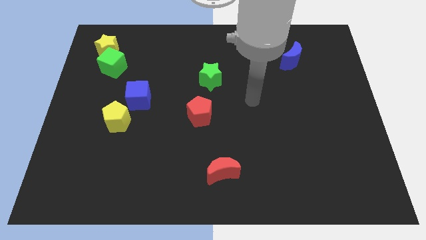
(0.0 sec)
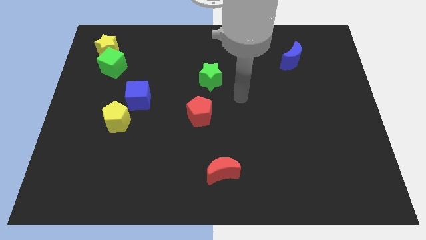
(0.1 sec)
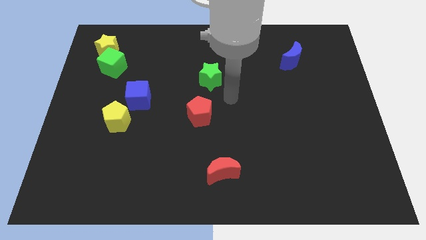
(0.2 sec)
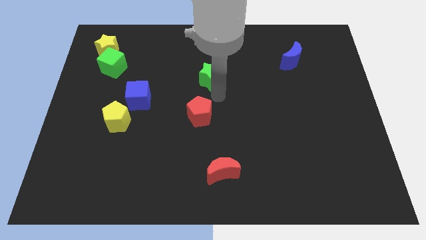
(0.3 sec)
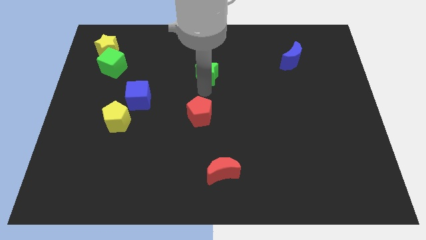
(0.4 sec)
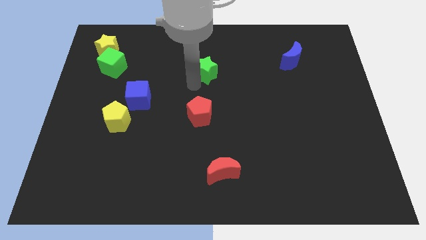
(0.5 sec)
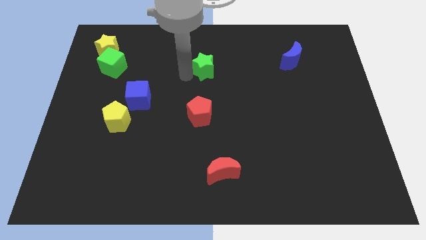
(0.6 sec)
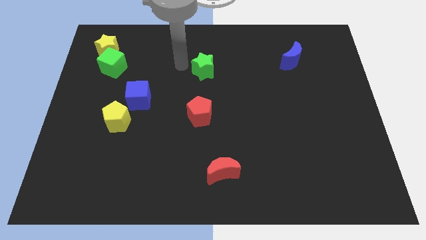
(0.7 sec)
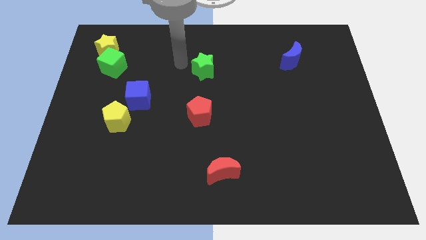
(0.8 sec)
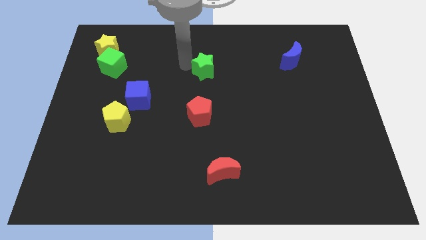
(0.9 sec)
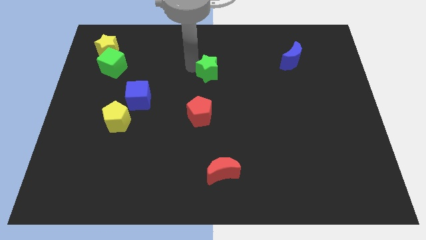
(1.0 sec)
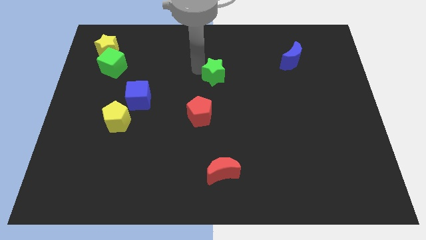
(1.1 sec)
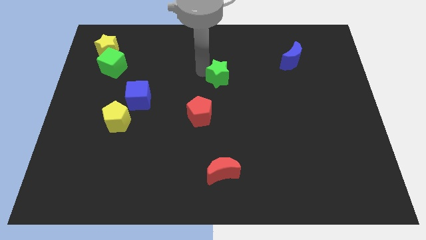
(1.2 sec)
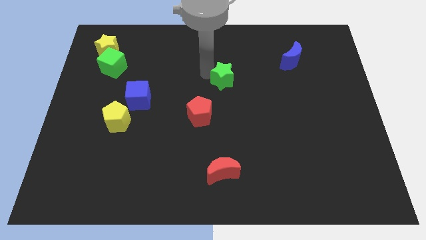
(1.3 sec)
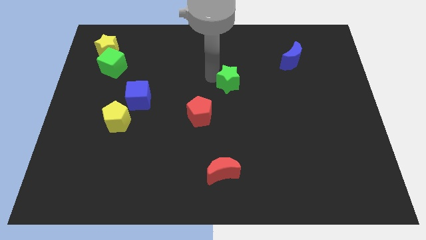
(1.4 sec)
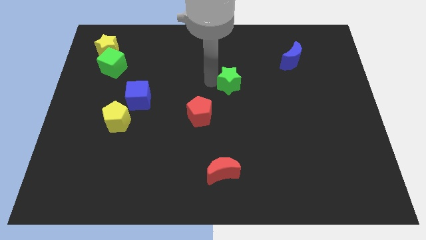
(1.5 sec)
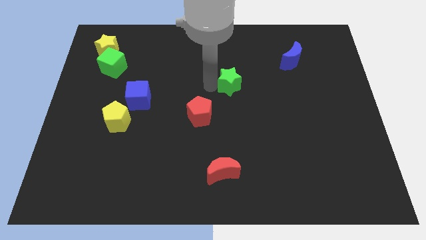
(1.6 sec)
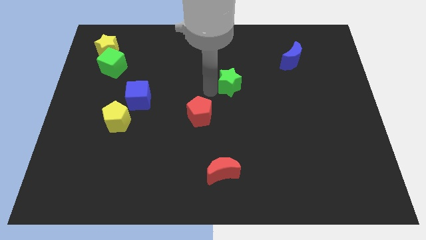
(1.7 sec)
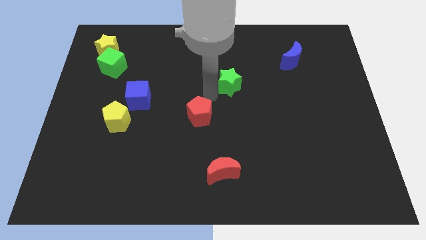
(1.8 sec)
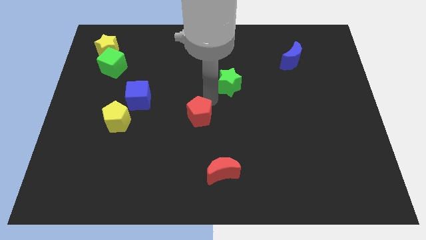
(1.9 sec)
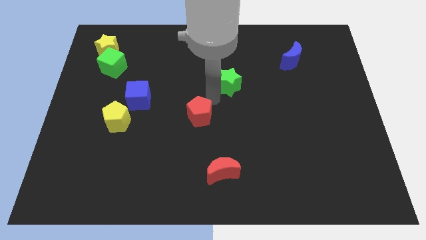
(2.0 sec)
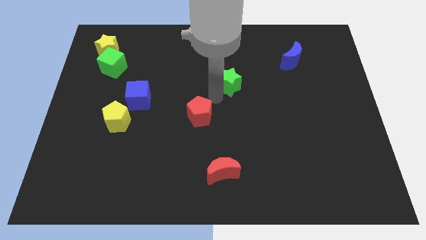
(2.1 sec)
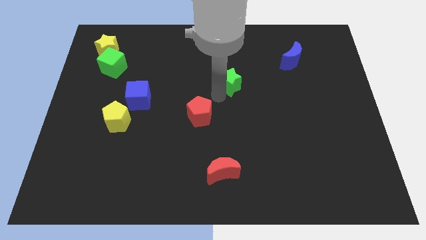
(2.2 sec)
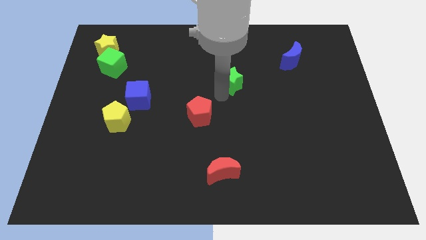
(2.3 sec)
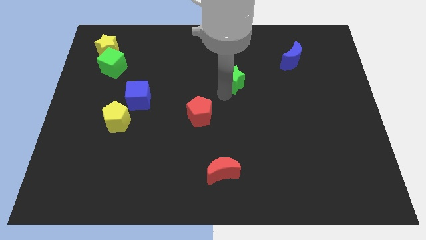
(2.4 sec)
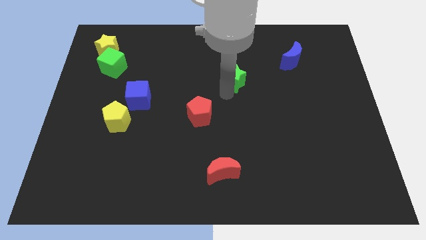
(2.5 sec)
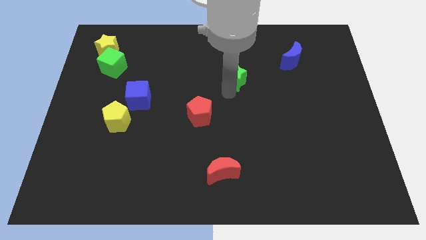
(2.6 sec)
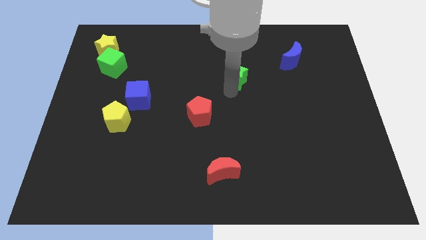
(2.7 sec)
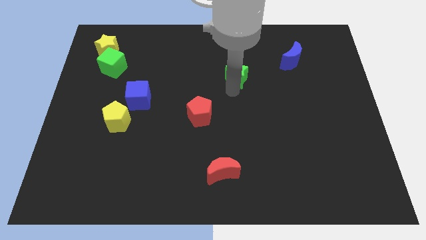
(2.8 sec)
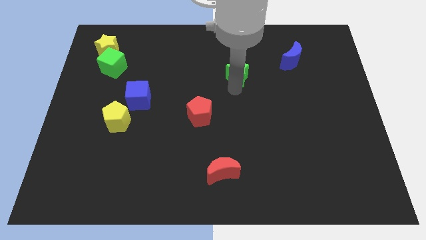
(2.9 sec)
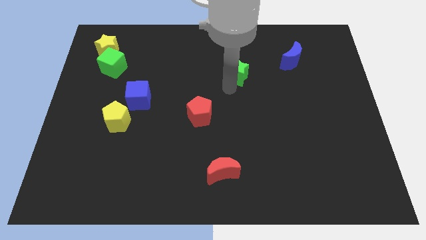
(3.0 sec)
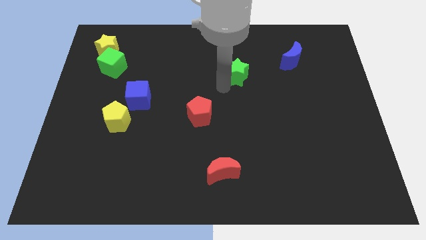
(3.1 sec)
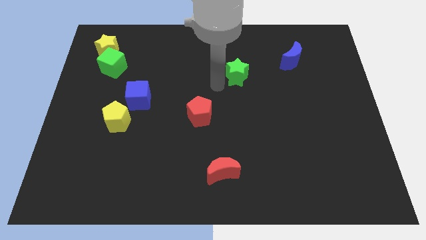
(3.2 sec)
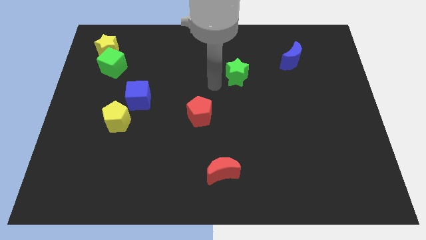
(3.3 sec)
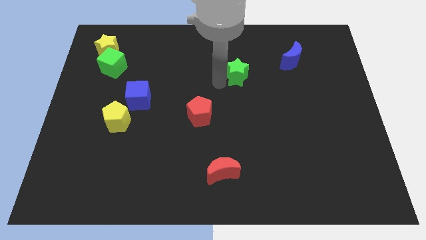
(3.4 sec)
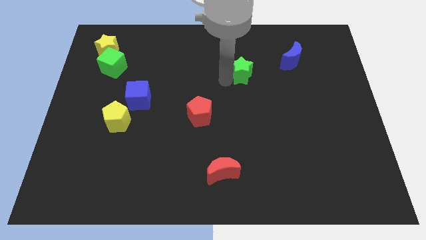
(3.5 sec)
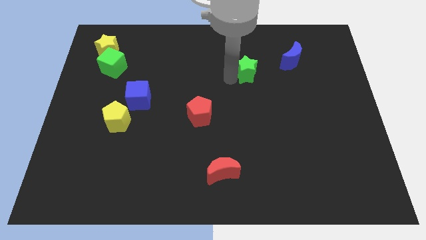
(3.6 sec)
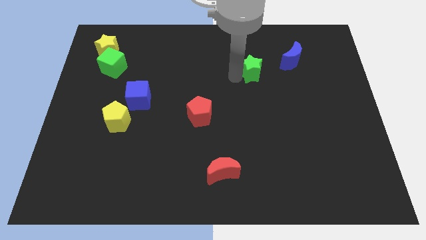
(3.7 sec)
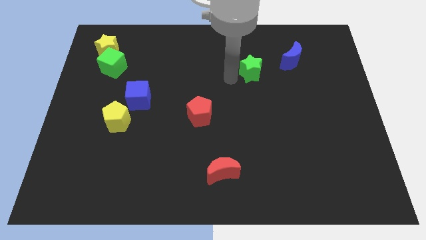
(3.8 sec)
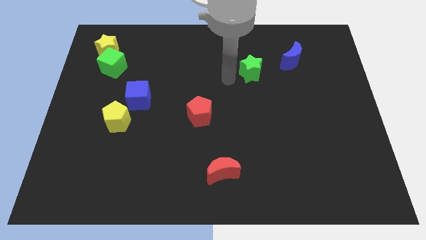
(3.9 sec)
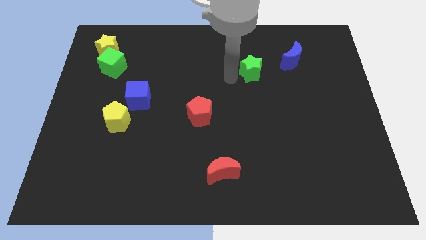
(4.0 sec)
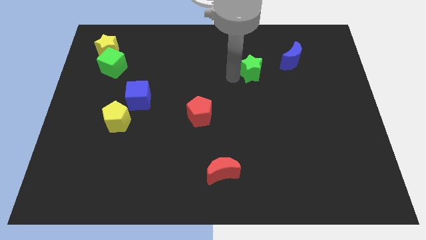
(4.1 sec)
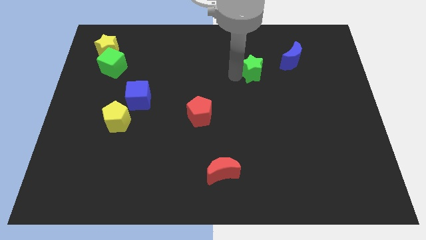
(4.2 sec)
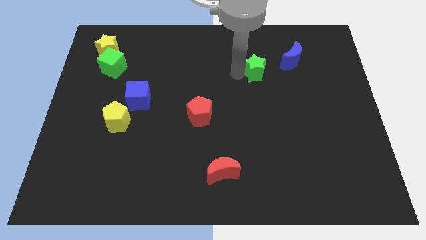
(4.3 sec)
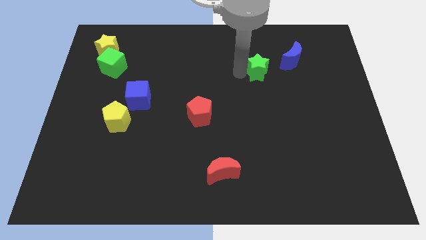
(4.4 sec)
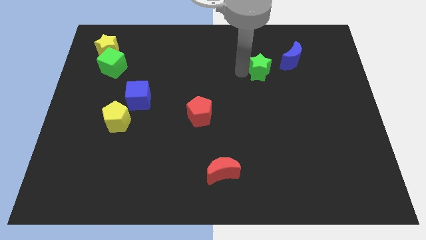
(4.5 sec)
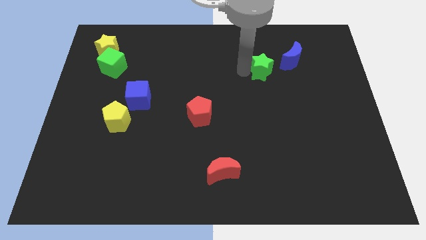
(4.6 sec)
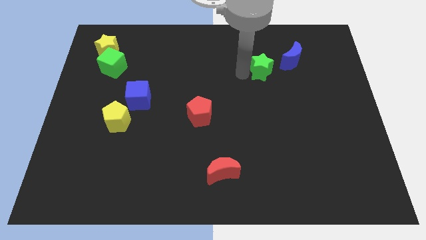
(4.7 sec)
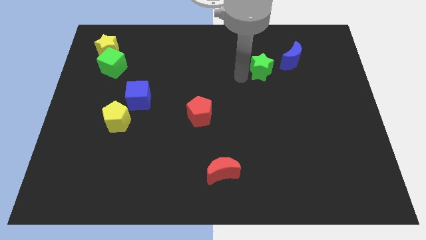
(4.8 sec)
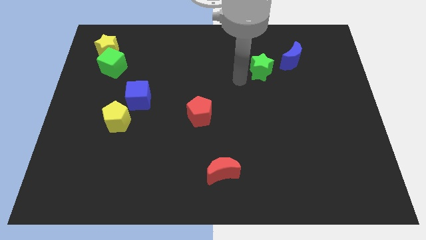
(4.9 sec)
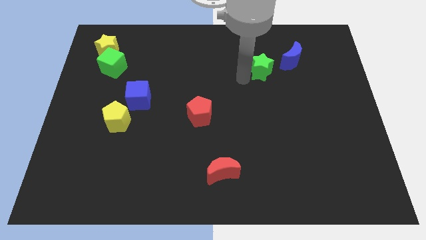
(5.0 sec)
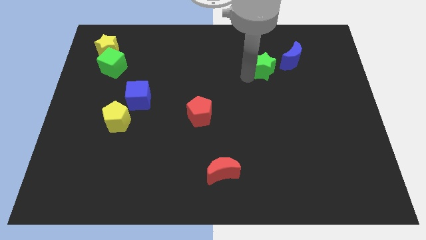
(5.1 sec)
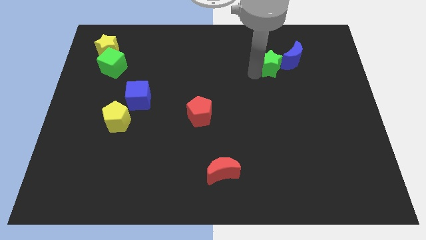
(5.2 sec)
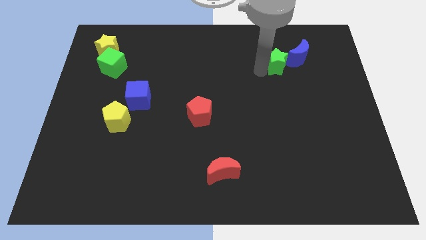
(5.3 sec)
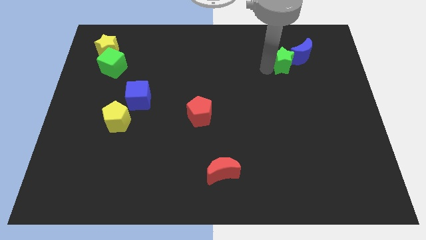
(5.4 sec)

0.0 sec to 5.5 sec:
move the green star to the blue moon
